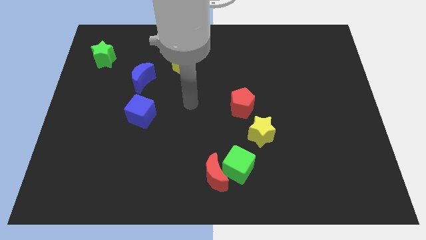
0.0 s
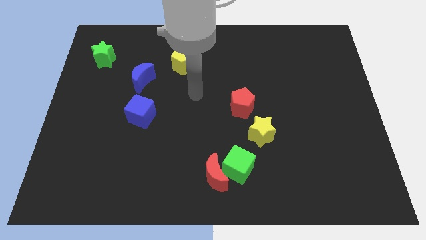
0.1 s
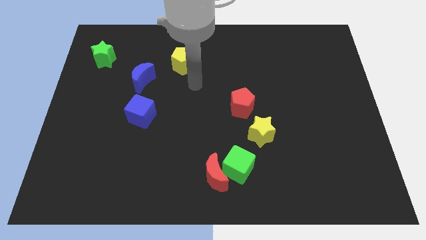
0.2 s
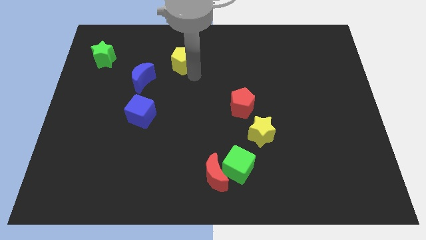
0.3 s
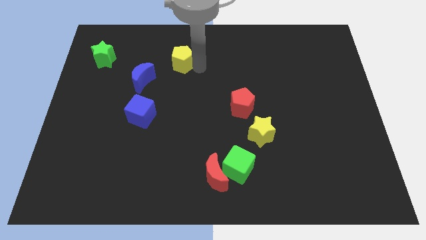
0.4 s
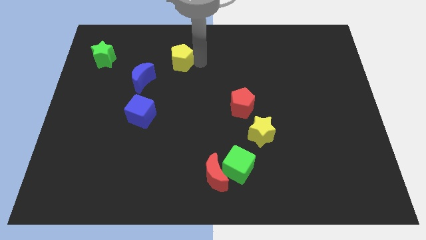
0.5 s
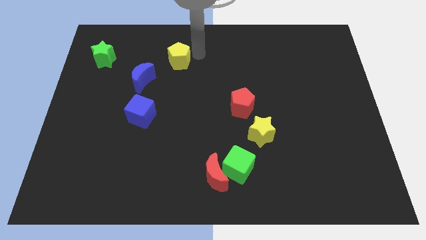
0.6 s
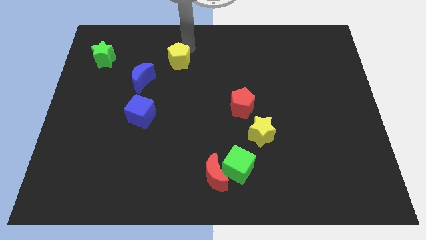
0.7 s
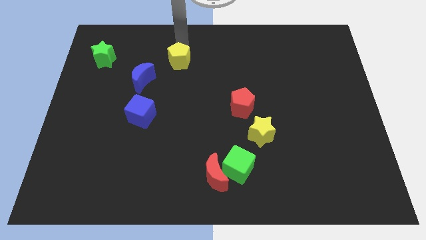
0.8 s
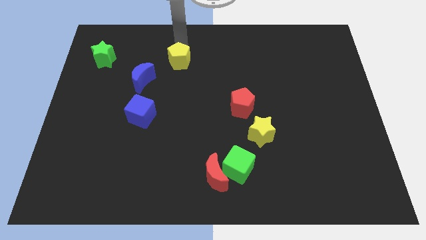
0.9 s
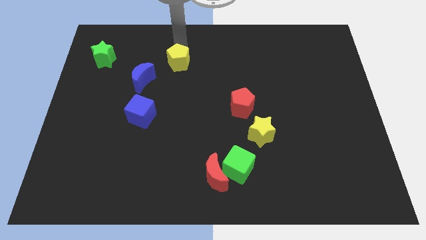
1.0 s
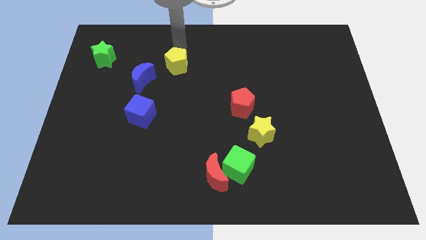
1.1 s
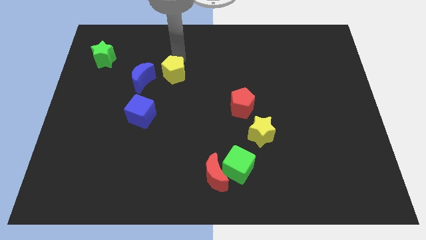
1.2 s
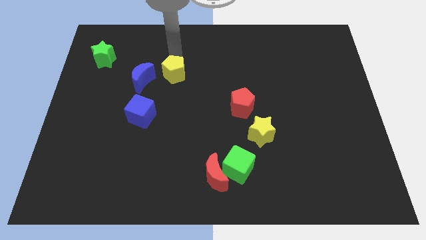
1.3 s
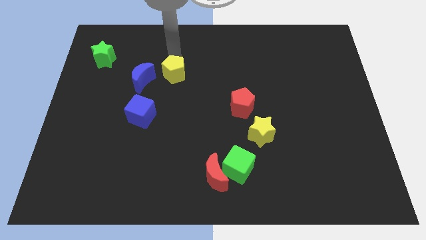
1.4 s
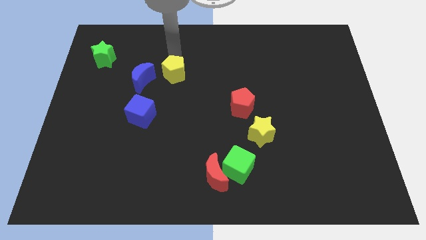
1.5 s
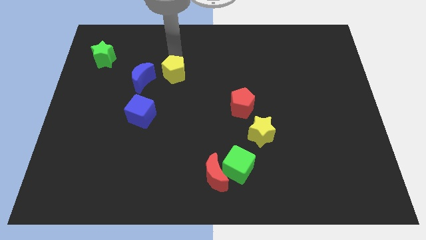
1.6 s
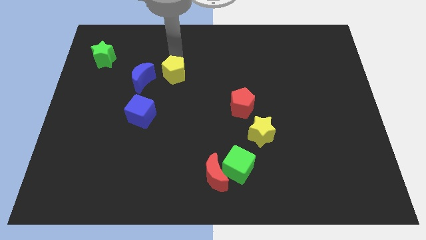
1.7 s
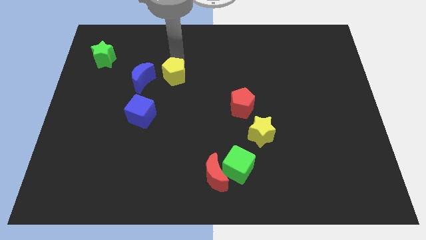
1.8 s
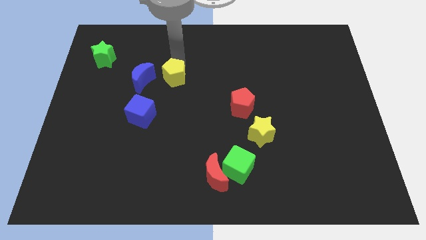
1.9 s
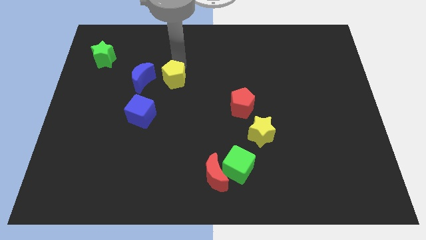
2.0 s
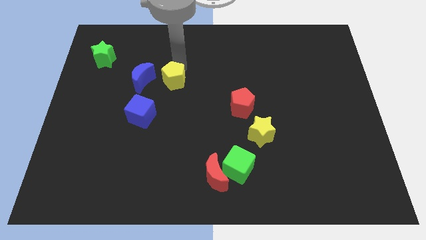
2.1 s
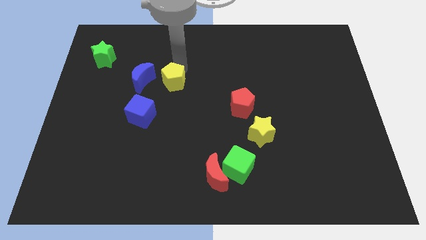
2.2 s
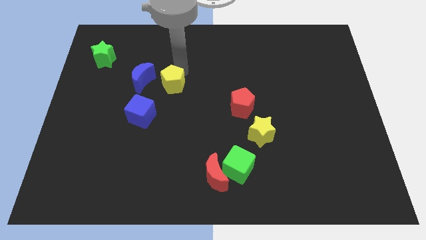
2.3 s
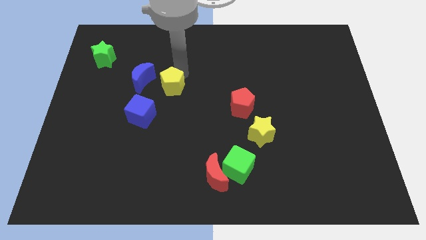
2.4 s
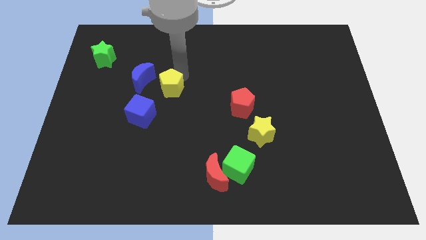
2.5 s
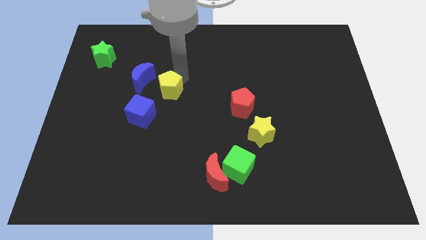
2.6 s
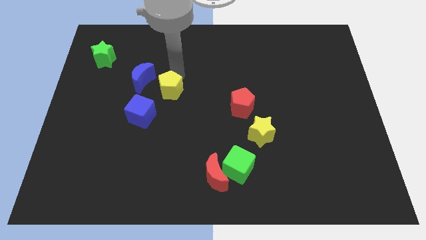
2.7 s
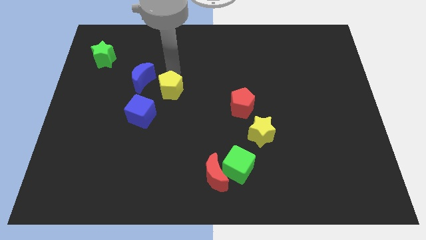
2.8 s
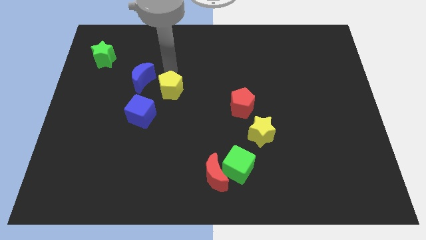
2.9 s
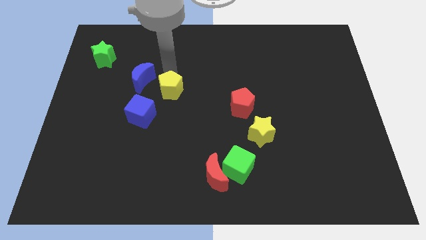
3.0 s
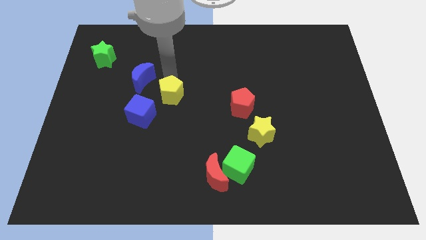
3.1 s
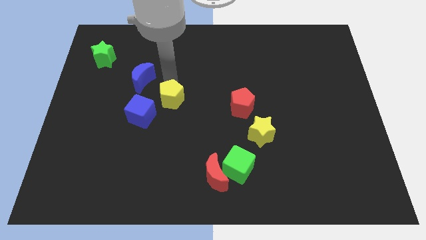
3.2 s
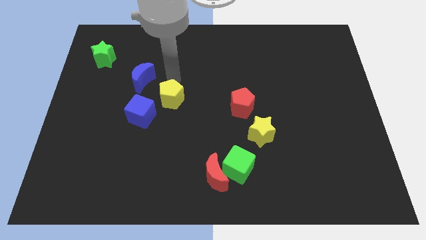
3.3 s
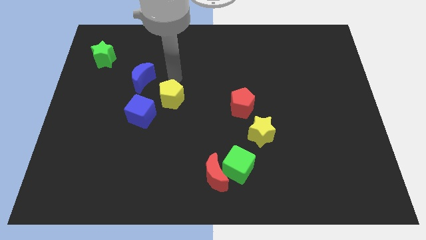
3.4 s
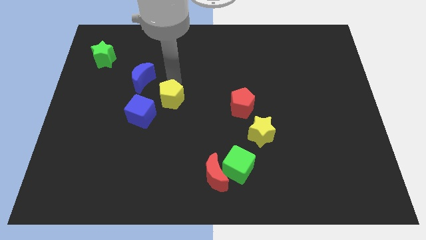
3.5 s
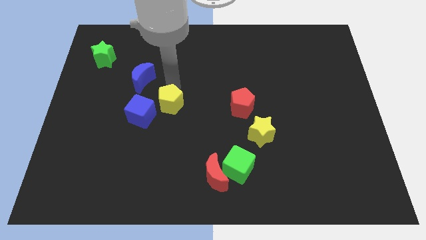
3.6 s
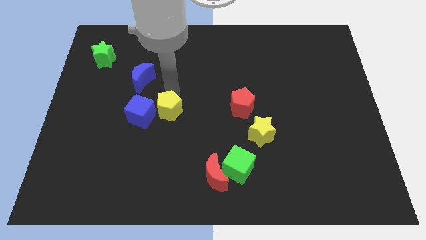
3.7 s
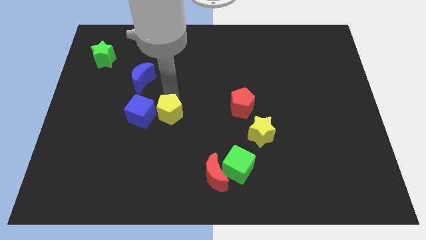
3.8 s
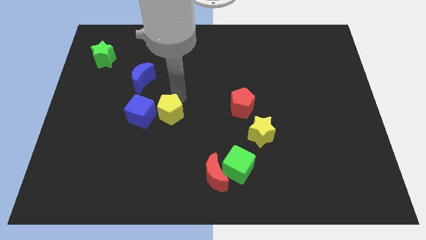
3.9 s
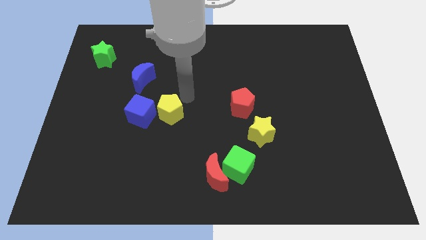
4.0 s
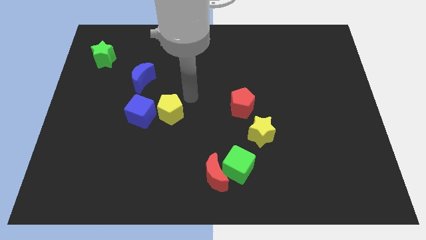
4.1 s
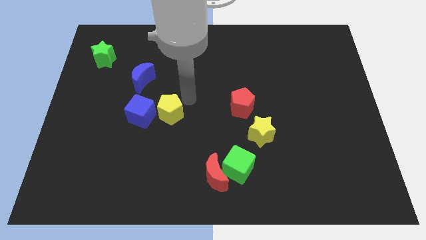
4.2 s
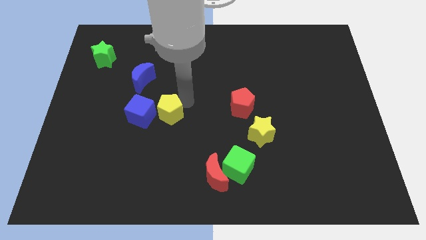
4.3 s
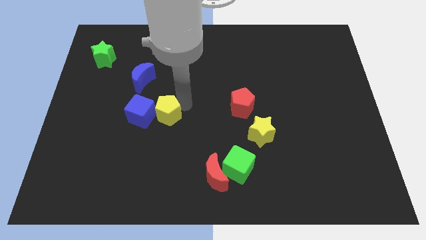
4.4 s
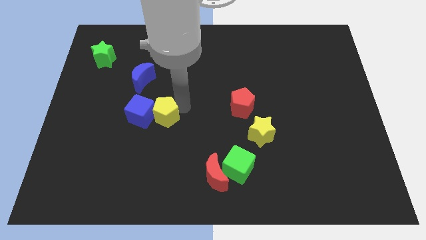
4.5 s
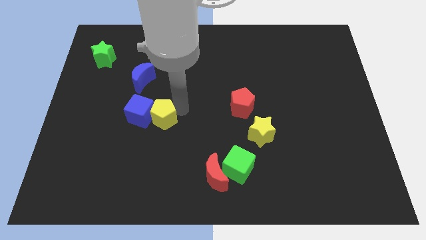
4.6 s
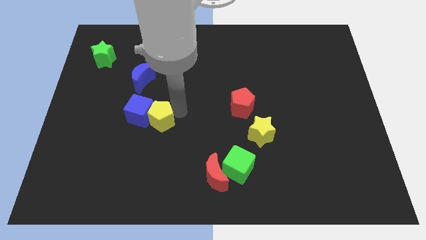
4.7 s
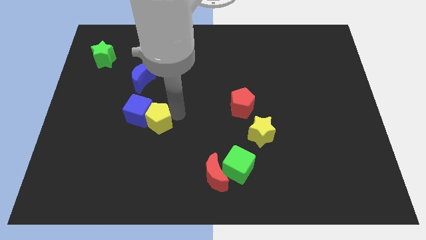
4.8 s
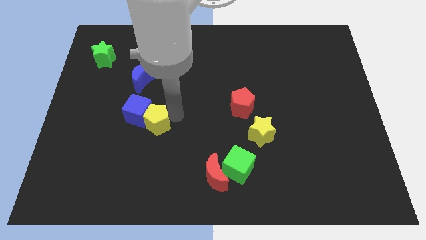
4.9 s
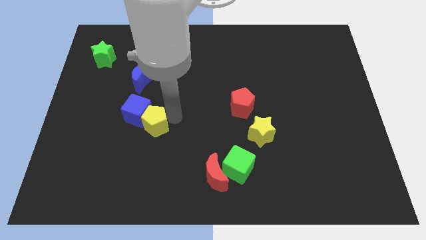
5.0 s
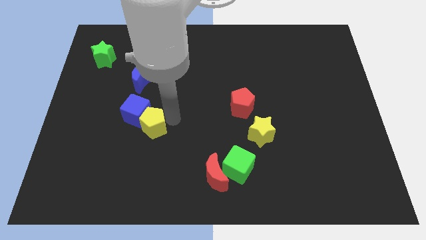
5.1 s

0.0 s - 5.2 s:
put the yellow pentagon below the blue moon

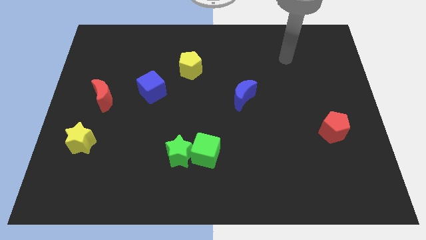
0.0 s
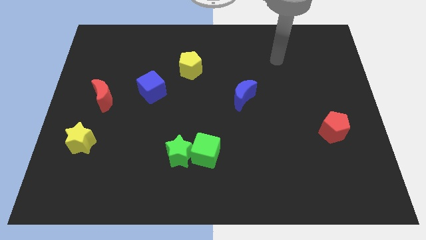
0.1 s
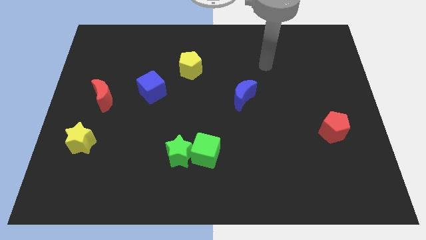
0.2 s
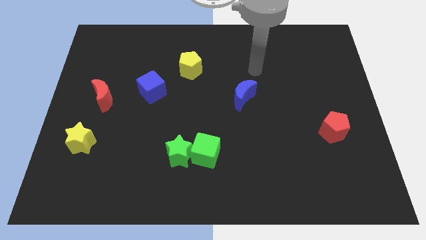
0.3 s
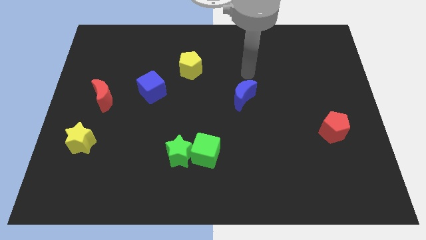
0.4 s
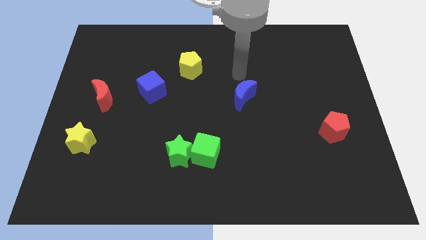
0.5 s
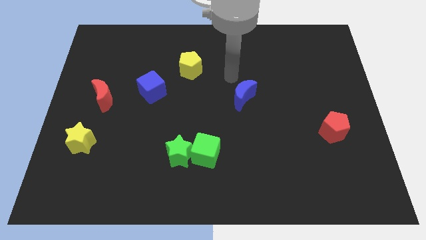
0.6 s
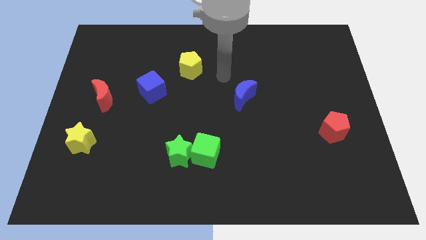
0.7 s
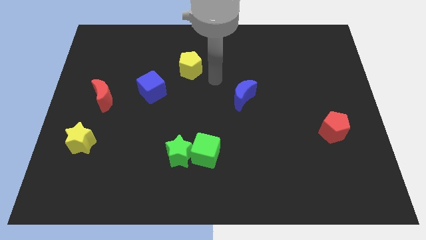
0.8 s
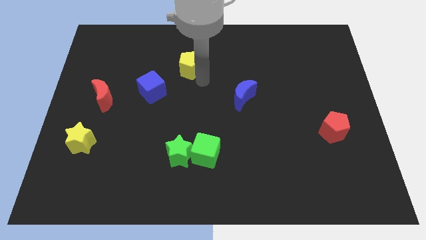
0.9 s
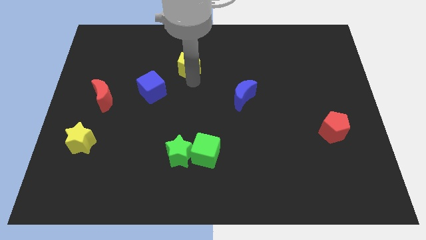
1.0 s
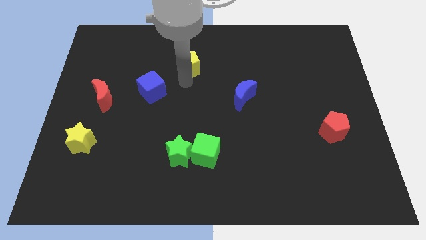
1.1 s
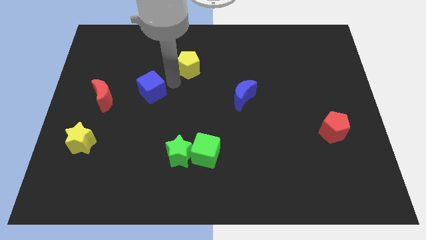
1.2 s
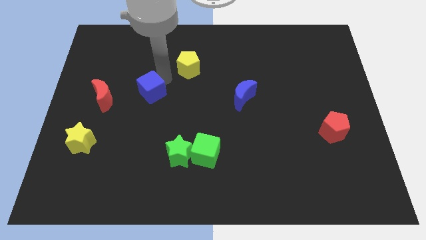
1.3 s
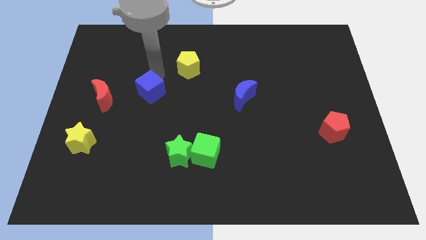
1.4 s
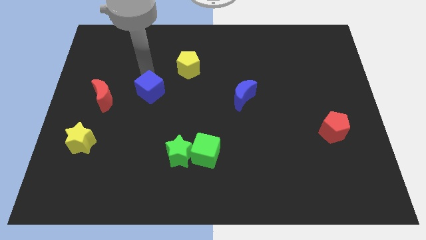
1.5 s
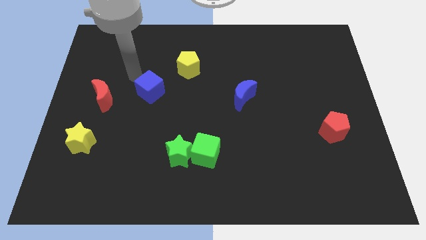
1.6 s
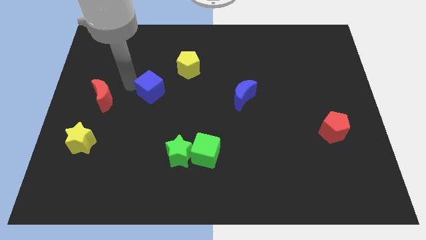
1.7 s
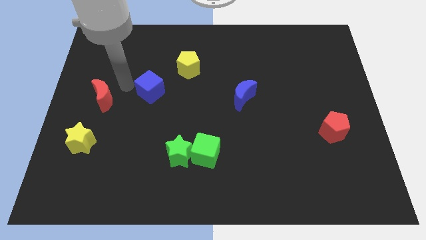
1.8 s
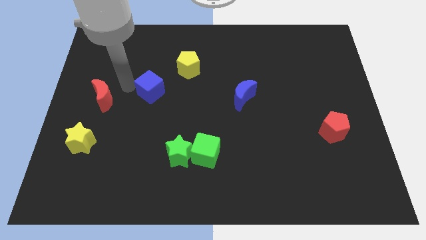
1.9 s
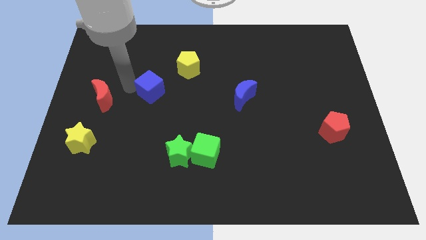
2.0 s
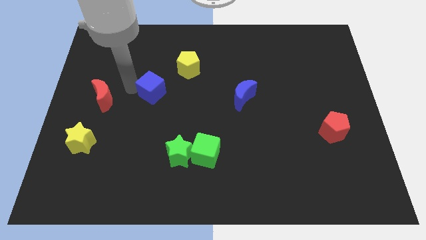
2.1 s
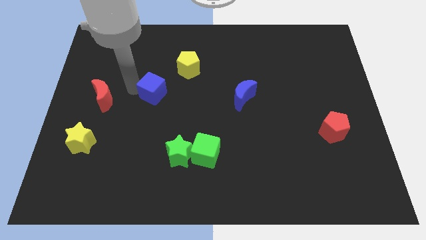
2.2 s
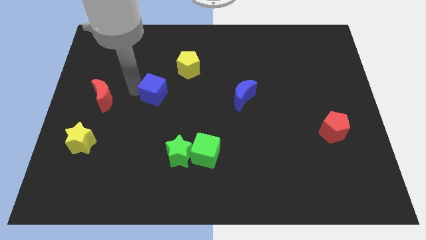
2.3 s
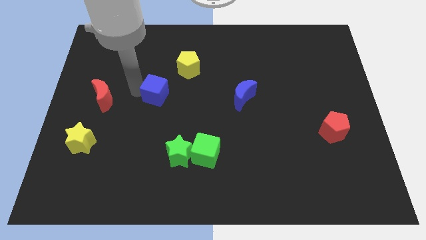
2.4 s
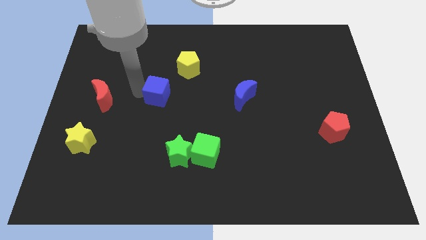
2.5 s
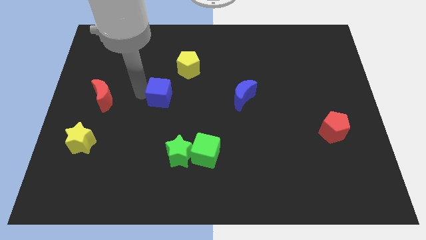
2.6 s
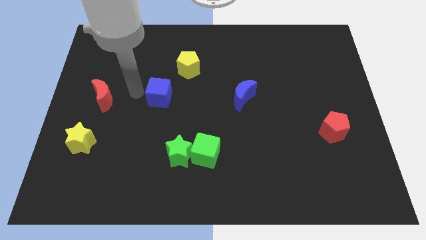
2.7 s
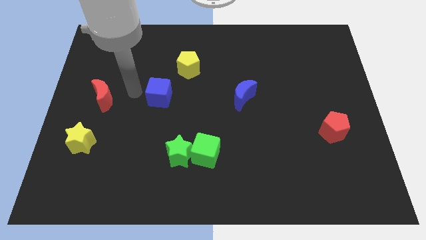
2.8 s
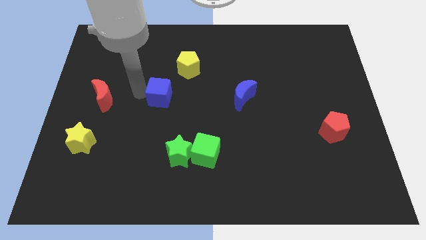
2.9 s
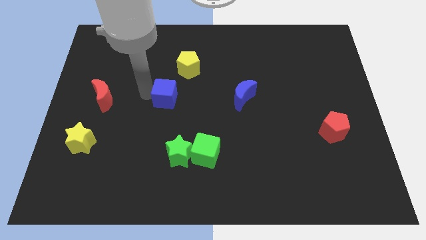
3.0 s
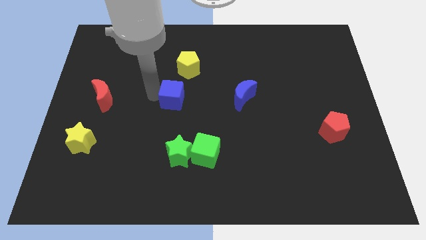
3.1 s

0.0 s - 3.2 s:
put the blue cube below the yellow pentagon
